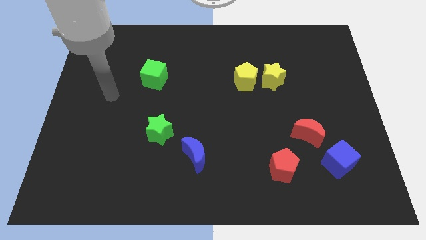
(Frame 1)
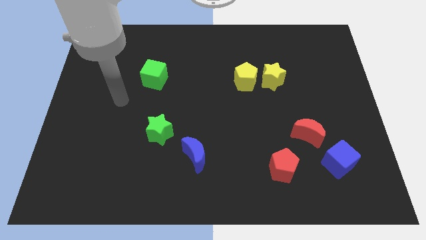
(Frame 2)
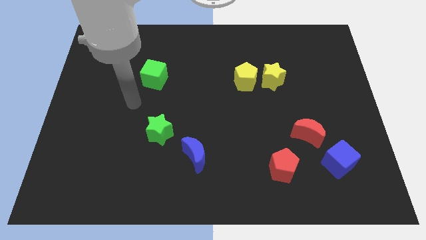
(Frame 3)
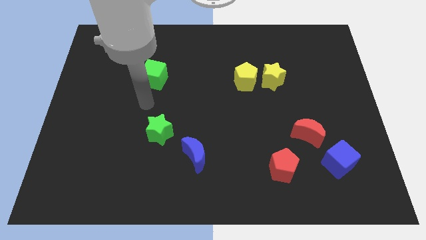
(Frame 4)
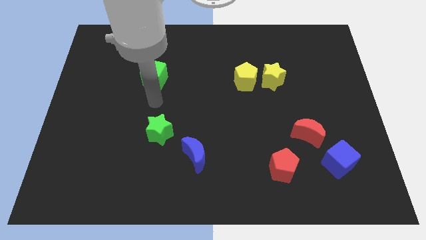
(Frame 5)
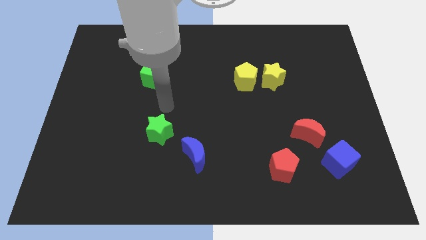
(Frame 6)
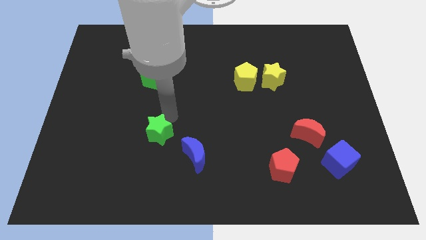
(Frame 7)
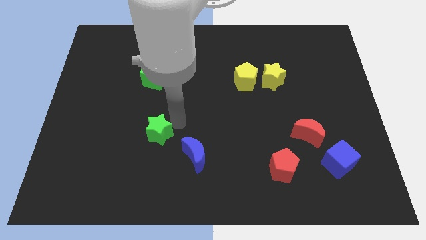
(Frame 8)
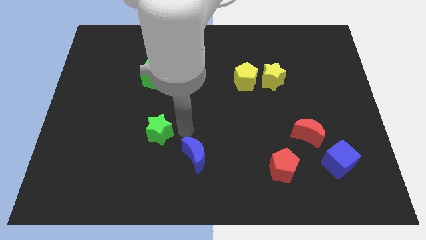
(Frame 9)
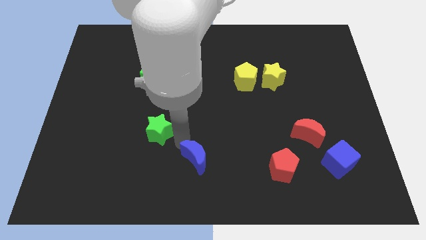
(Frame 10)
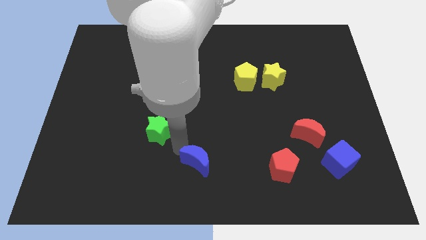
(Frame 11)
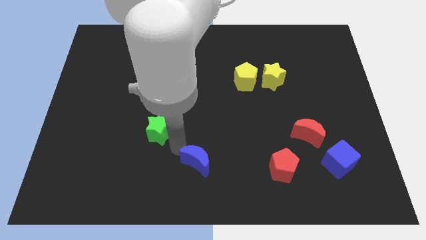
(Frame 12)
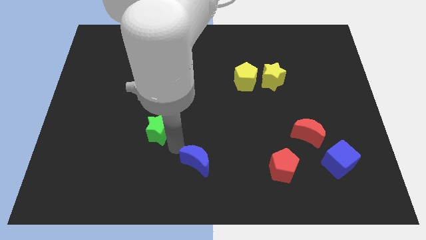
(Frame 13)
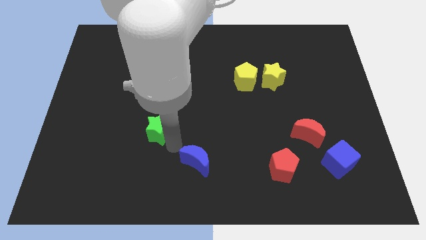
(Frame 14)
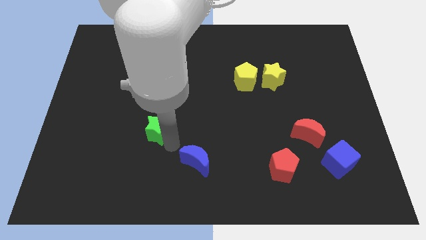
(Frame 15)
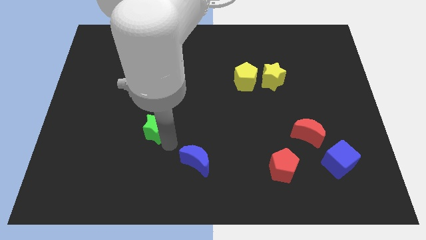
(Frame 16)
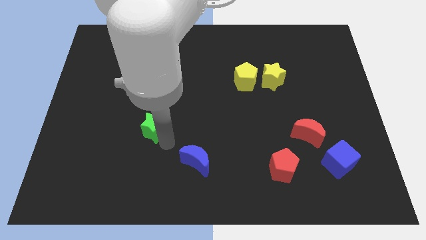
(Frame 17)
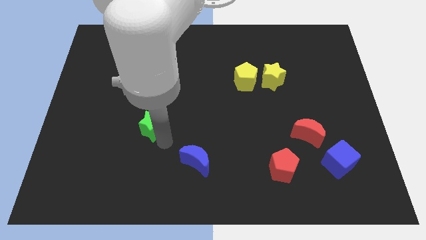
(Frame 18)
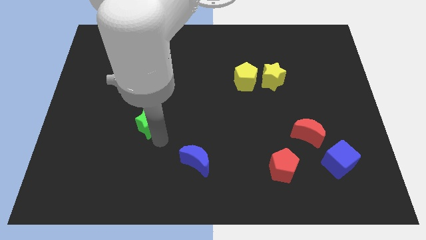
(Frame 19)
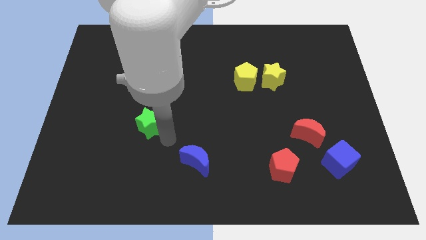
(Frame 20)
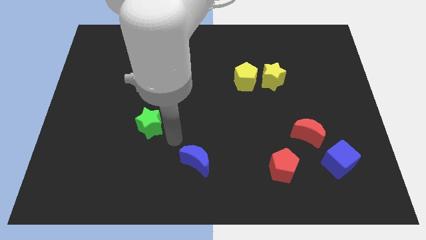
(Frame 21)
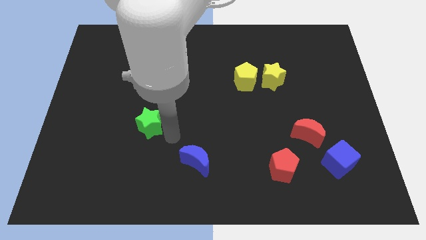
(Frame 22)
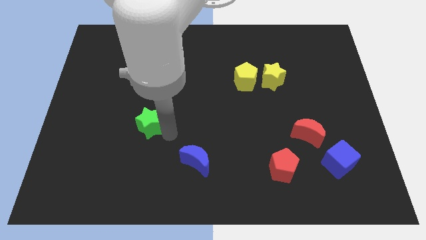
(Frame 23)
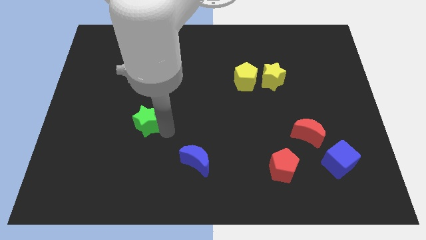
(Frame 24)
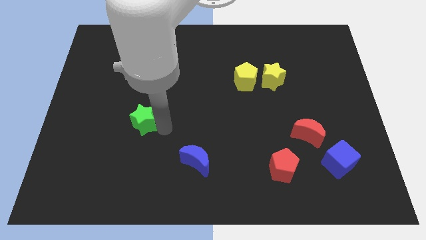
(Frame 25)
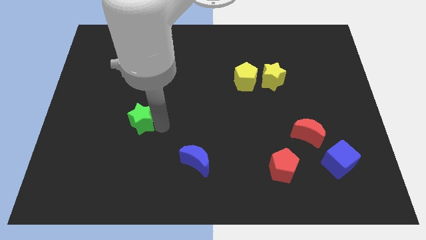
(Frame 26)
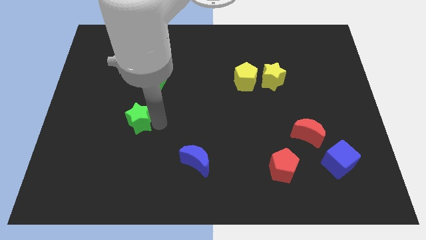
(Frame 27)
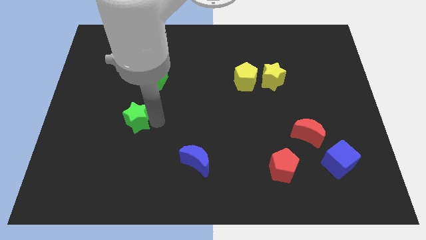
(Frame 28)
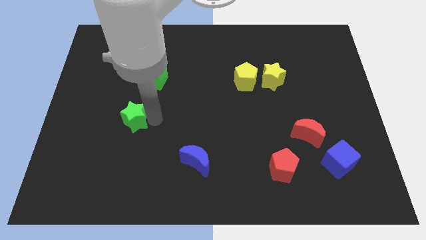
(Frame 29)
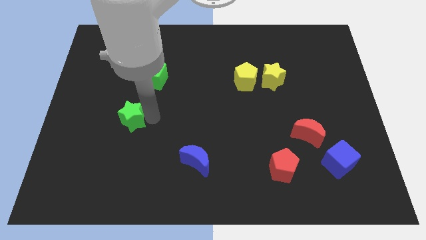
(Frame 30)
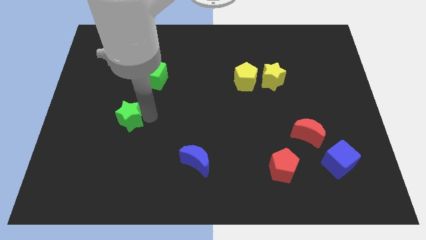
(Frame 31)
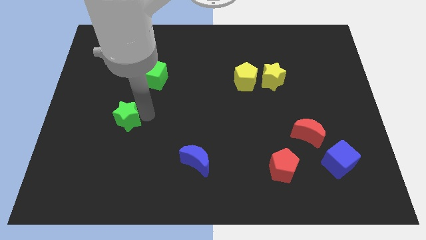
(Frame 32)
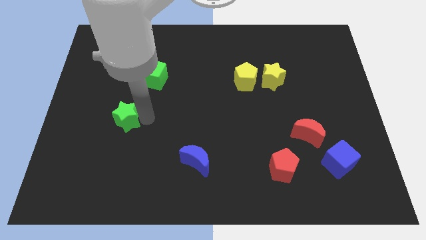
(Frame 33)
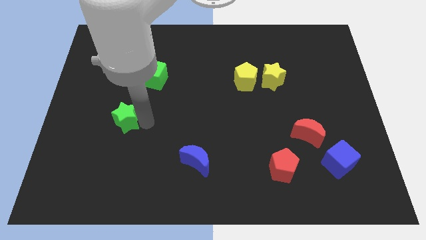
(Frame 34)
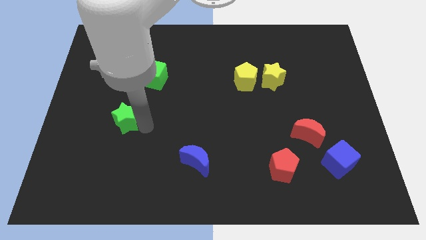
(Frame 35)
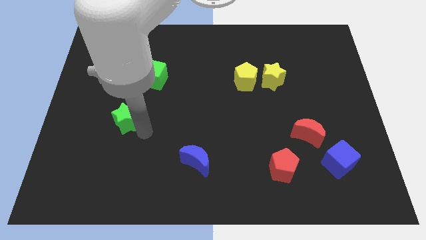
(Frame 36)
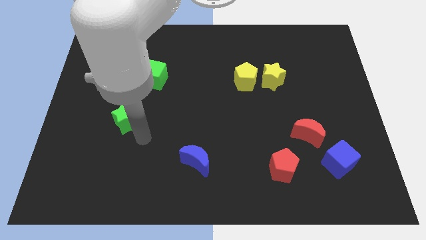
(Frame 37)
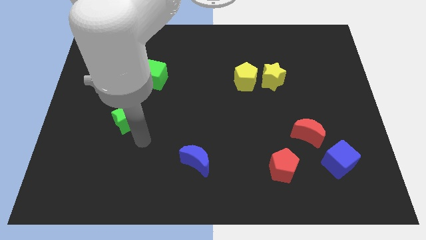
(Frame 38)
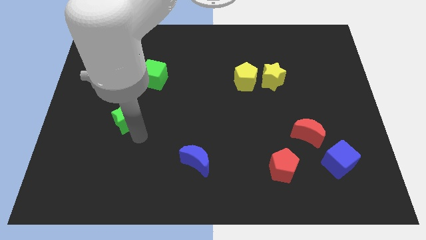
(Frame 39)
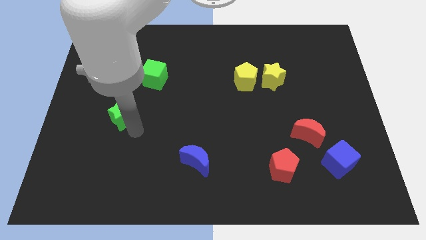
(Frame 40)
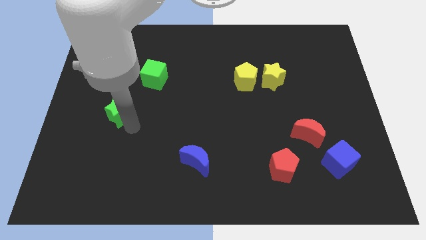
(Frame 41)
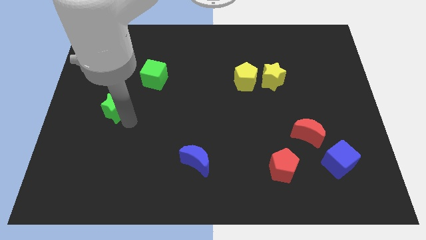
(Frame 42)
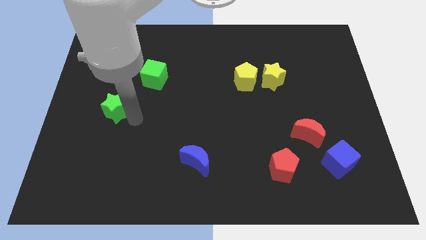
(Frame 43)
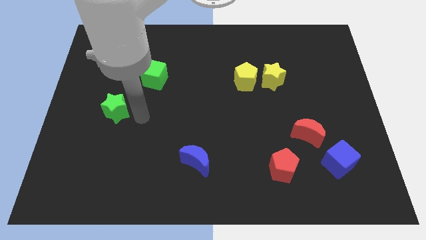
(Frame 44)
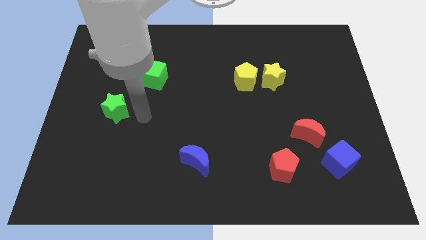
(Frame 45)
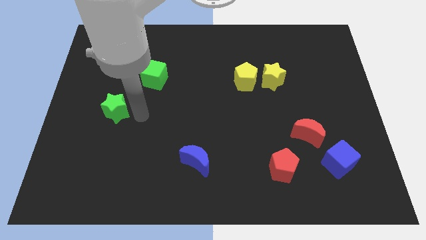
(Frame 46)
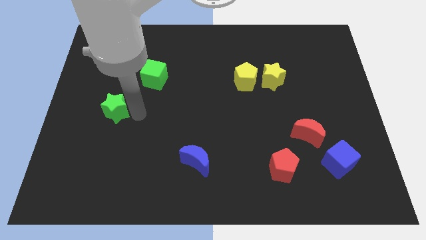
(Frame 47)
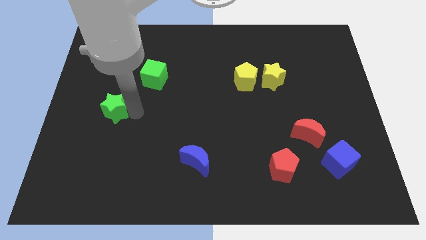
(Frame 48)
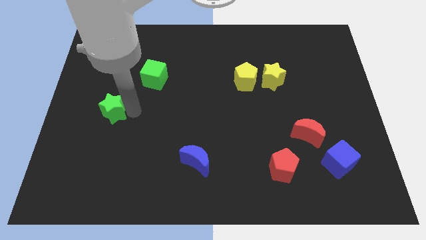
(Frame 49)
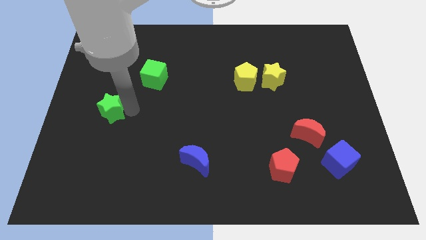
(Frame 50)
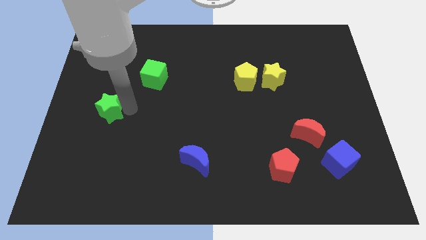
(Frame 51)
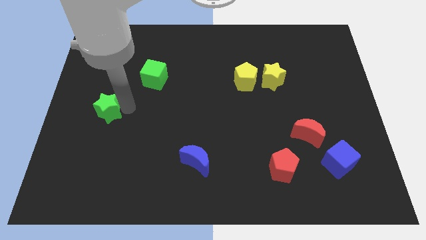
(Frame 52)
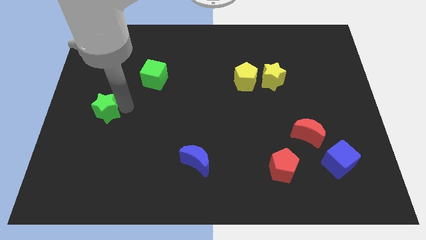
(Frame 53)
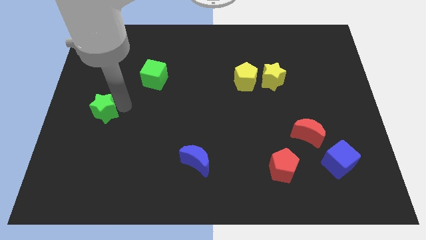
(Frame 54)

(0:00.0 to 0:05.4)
move the green star to the left side of the board

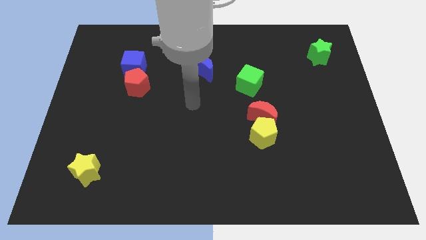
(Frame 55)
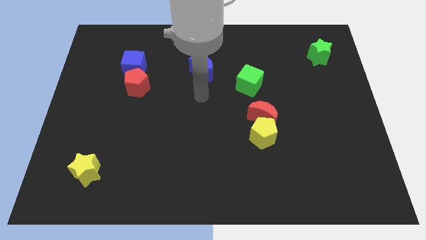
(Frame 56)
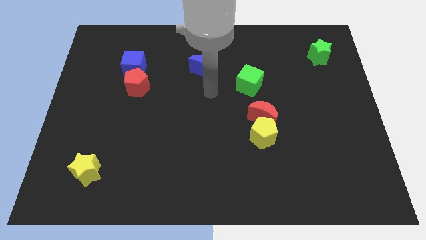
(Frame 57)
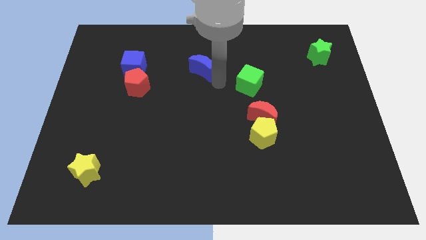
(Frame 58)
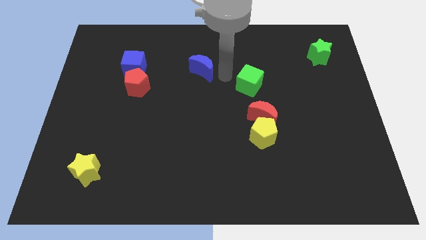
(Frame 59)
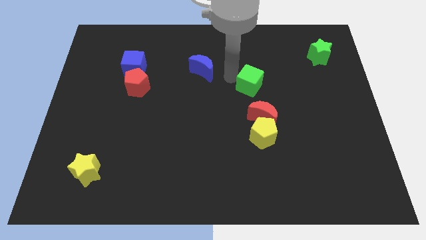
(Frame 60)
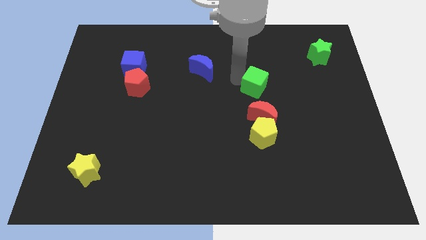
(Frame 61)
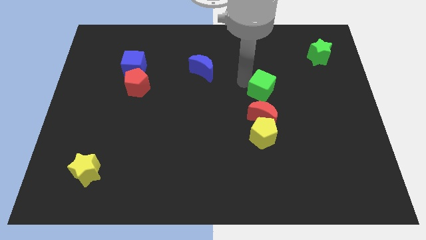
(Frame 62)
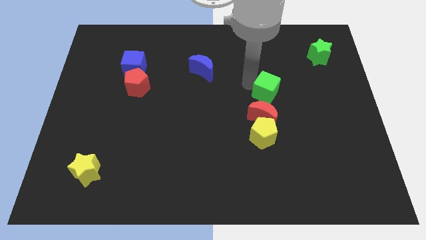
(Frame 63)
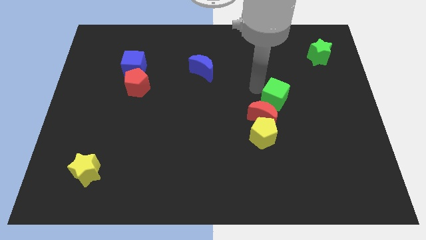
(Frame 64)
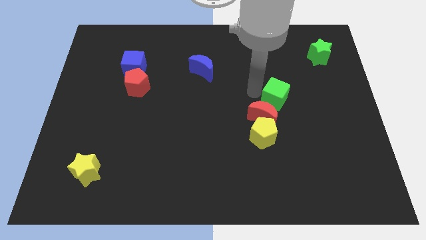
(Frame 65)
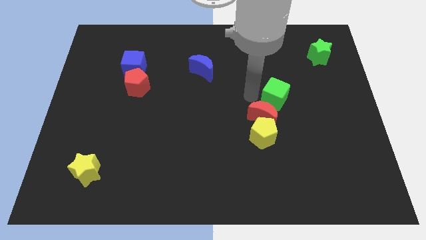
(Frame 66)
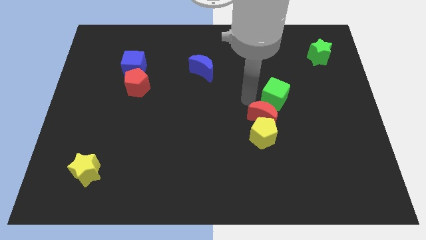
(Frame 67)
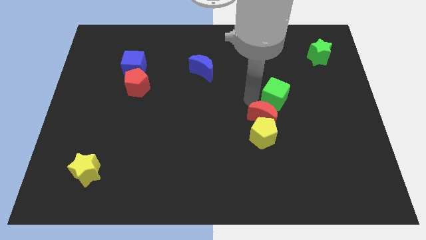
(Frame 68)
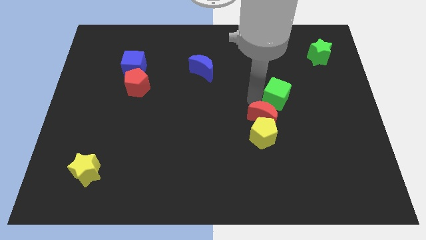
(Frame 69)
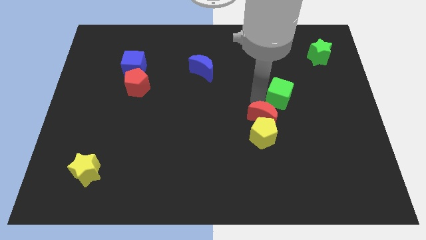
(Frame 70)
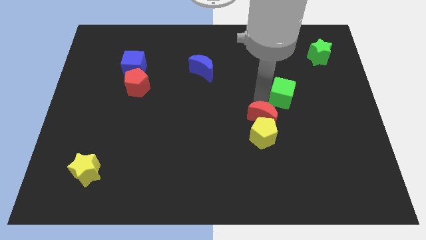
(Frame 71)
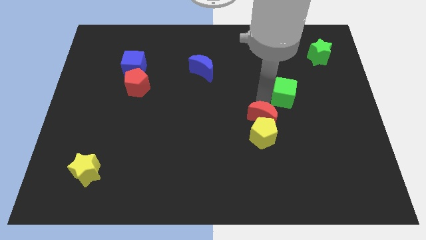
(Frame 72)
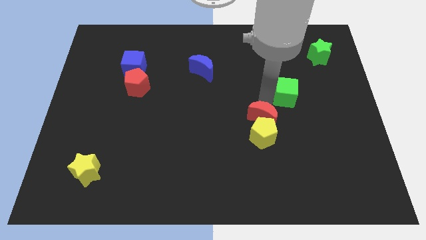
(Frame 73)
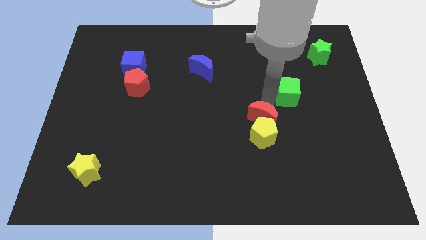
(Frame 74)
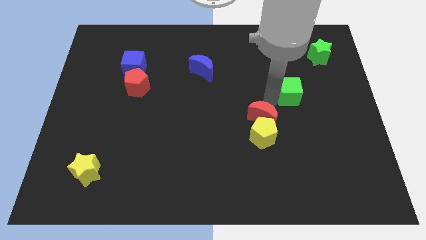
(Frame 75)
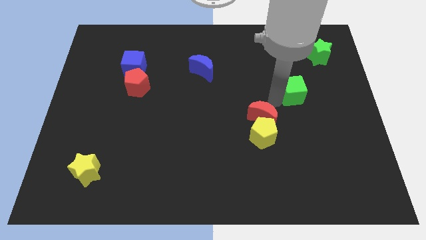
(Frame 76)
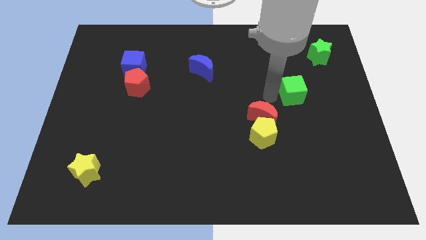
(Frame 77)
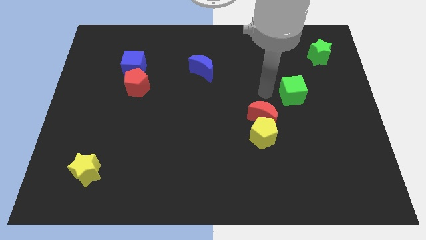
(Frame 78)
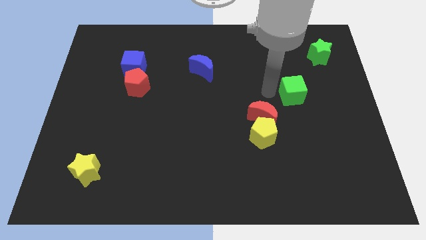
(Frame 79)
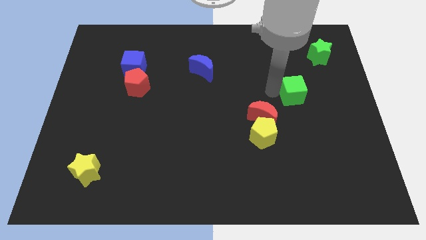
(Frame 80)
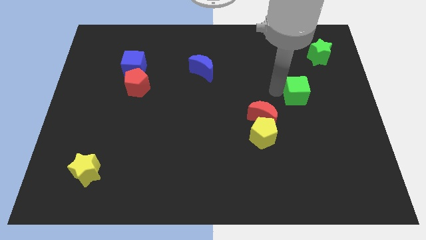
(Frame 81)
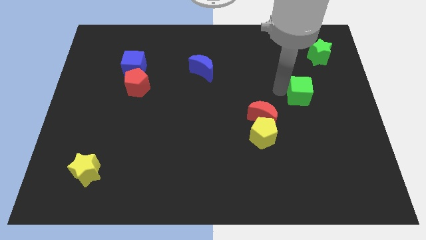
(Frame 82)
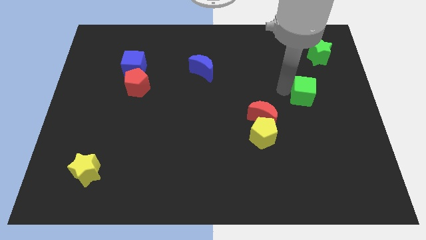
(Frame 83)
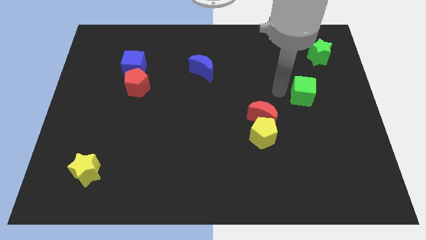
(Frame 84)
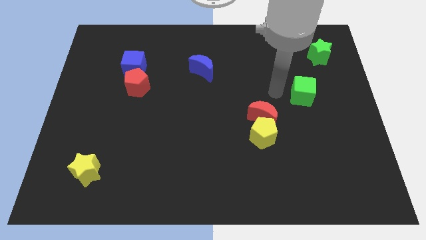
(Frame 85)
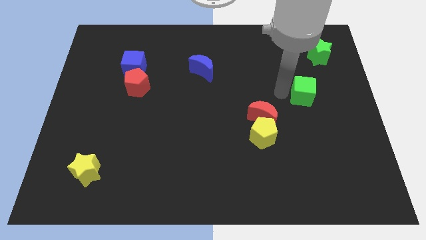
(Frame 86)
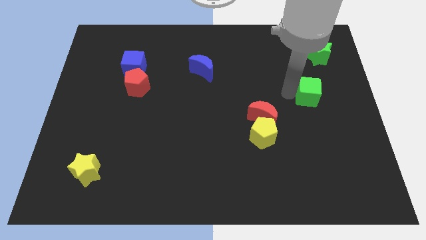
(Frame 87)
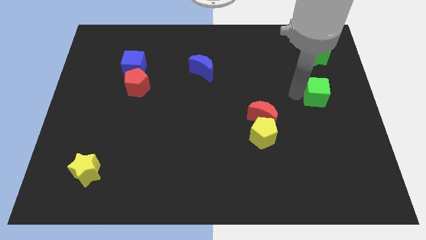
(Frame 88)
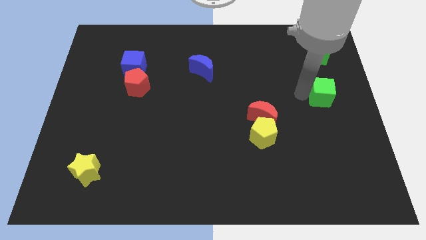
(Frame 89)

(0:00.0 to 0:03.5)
slide the green cube to the right side of the board
